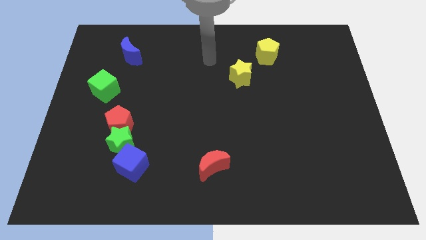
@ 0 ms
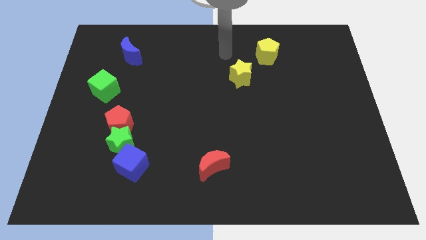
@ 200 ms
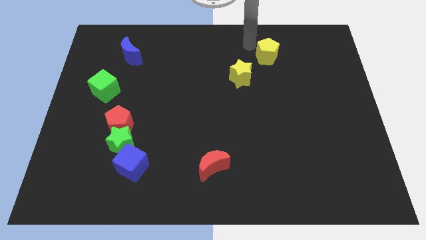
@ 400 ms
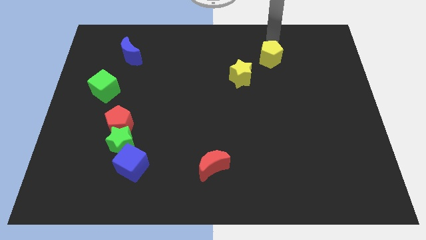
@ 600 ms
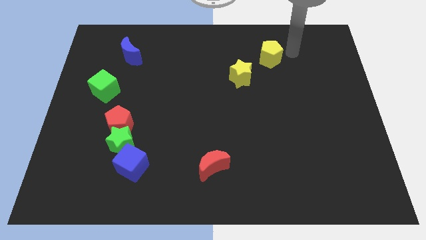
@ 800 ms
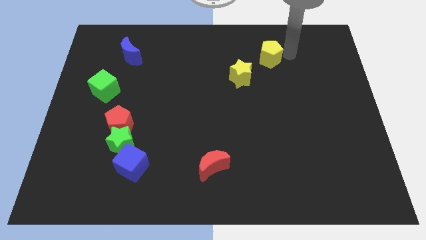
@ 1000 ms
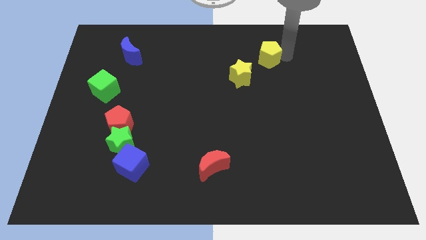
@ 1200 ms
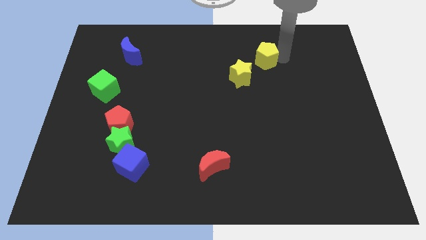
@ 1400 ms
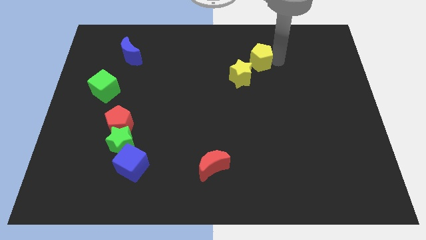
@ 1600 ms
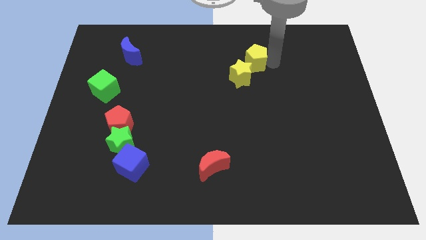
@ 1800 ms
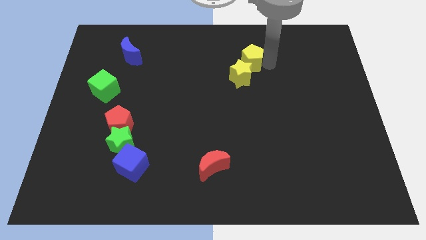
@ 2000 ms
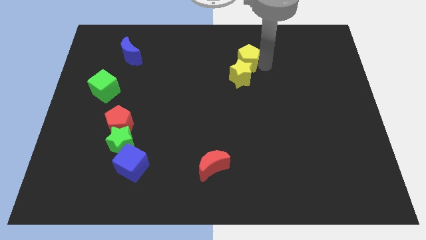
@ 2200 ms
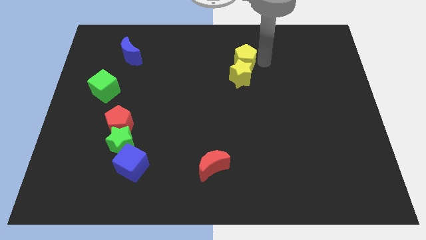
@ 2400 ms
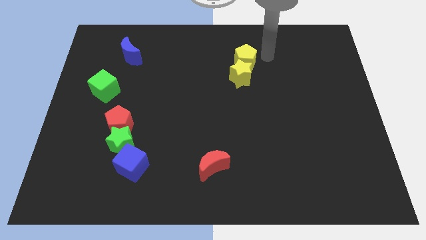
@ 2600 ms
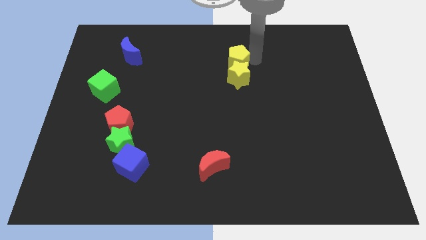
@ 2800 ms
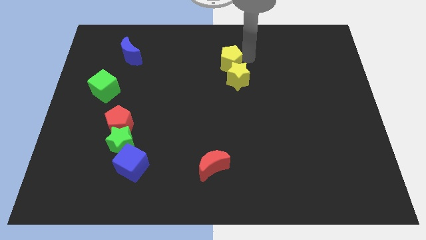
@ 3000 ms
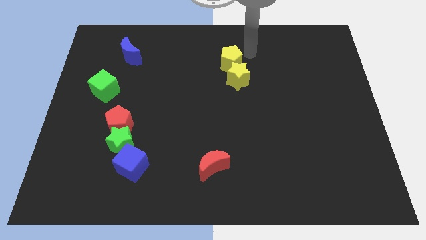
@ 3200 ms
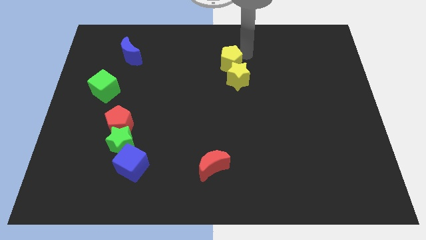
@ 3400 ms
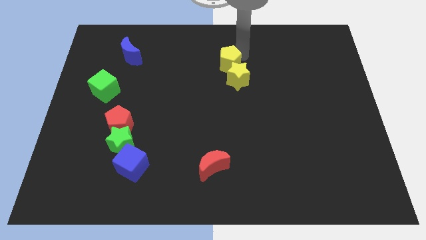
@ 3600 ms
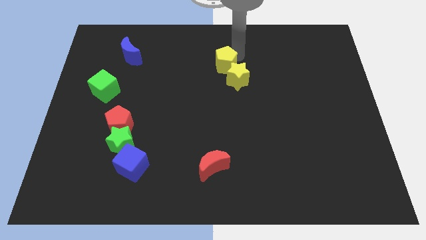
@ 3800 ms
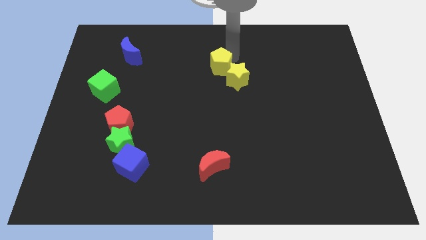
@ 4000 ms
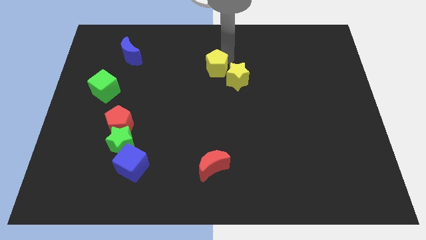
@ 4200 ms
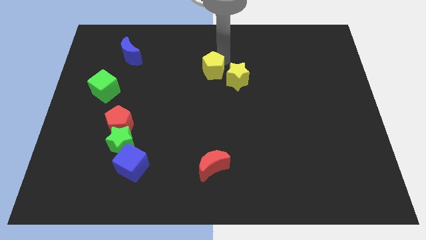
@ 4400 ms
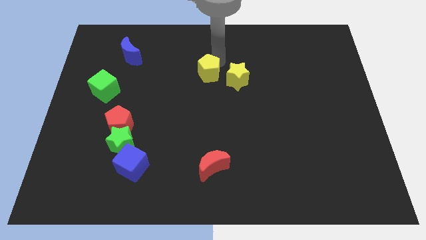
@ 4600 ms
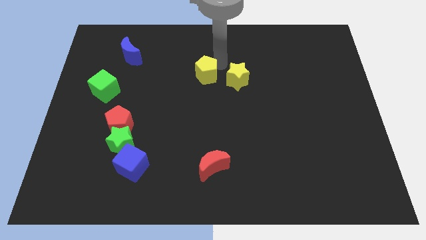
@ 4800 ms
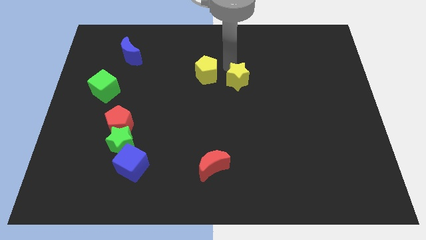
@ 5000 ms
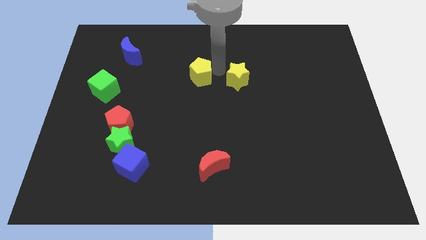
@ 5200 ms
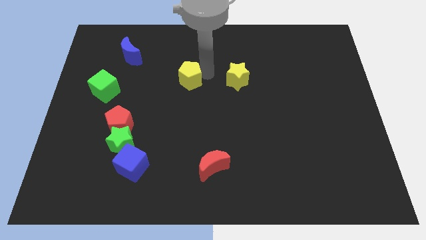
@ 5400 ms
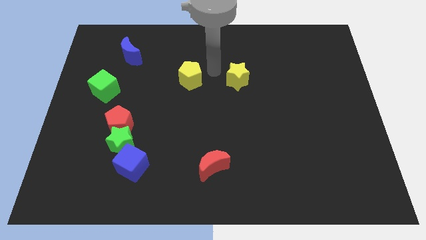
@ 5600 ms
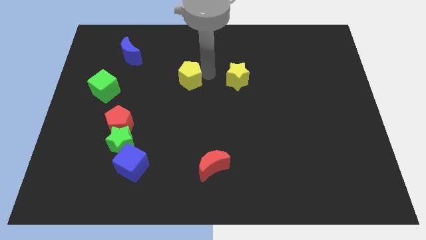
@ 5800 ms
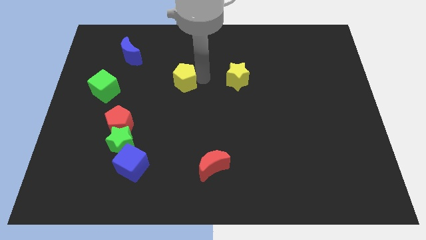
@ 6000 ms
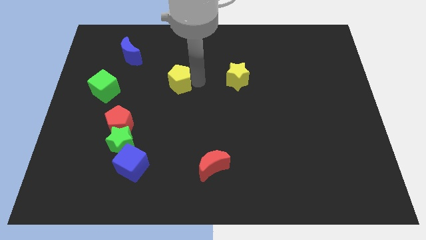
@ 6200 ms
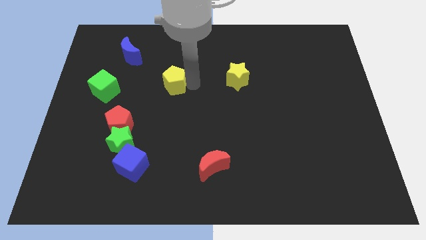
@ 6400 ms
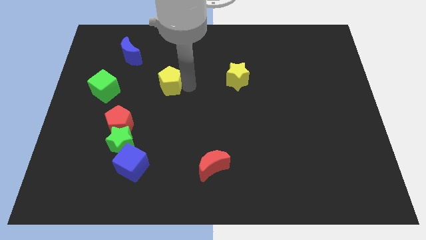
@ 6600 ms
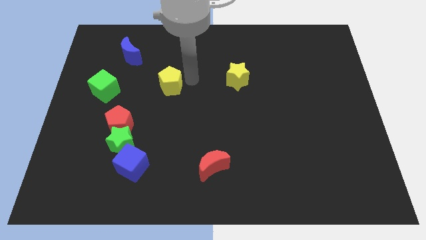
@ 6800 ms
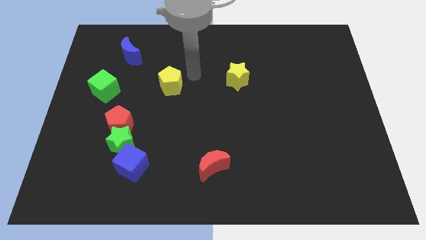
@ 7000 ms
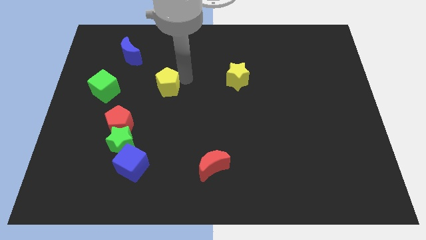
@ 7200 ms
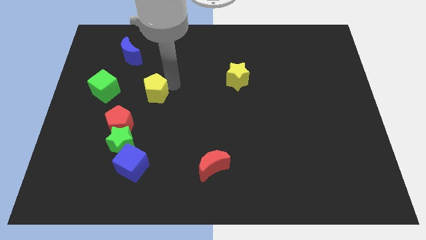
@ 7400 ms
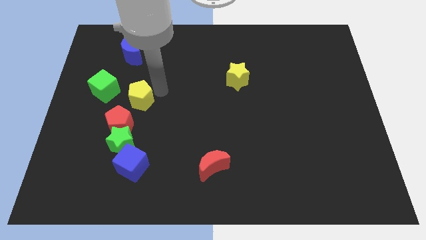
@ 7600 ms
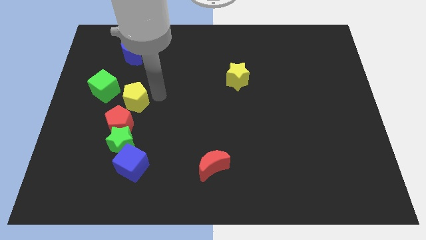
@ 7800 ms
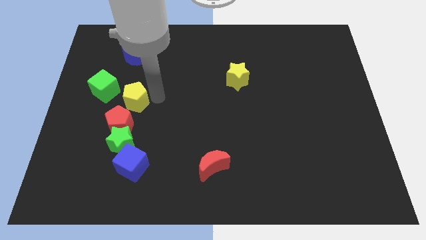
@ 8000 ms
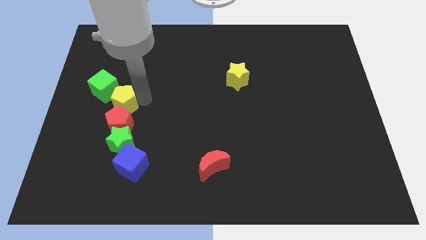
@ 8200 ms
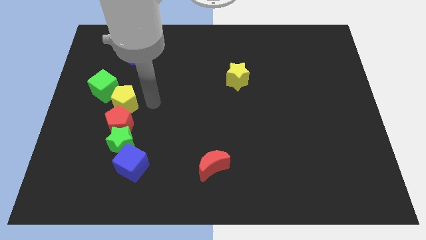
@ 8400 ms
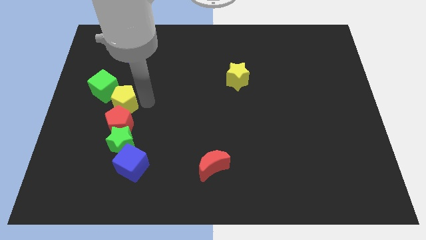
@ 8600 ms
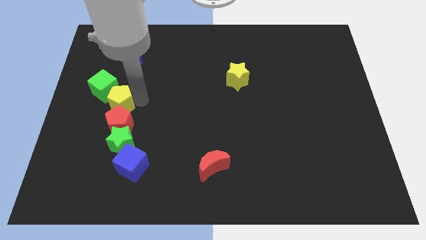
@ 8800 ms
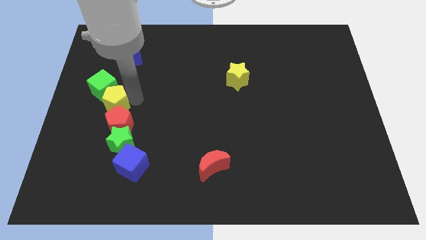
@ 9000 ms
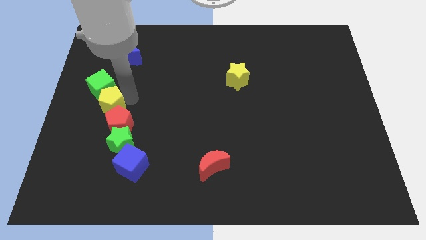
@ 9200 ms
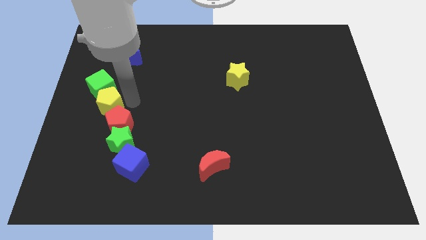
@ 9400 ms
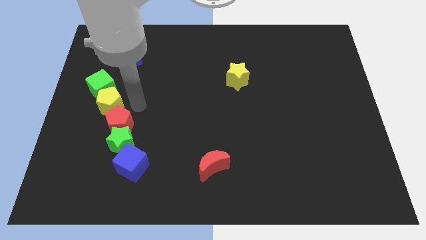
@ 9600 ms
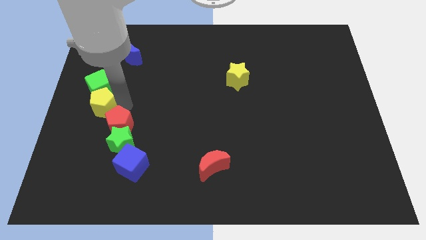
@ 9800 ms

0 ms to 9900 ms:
move the yellow pentagon to the center left

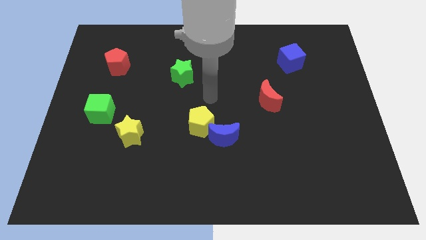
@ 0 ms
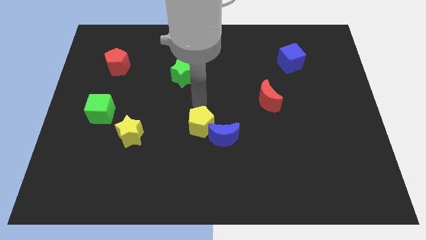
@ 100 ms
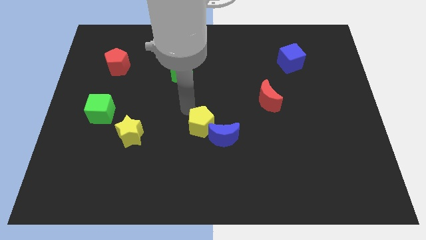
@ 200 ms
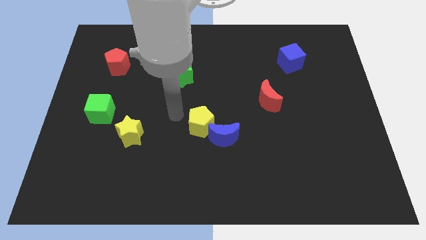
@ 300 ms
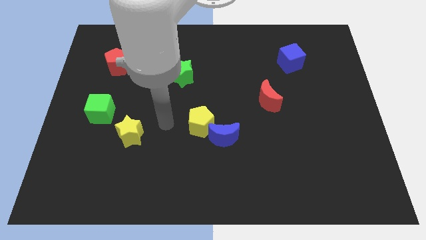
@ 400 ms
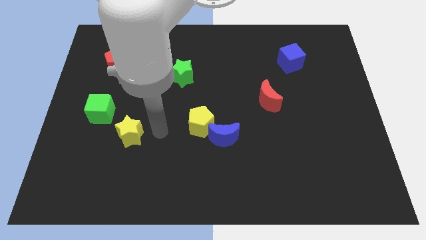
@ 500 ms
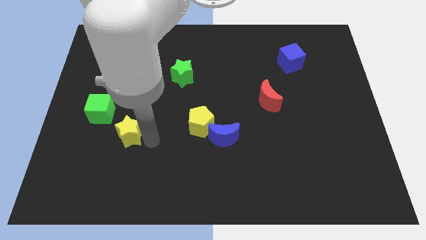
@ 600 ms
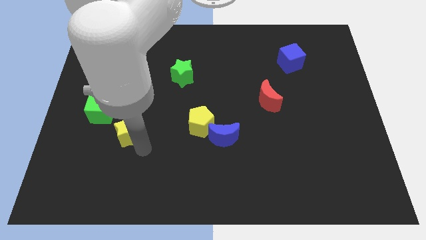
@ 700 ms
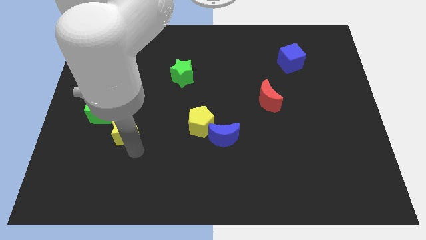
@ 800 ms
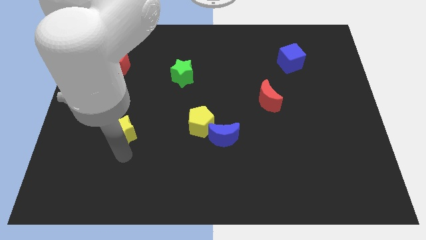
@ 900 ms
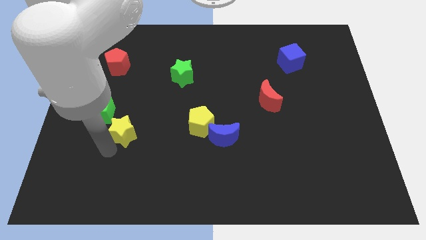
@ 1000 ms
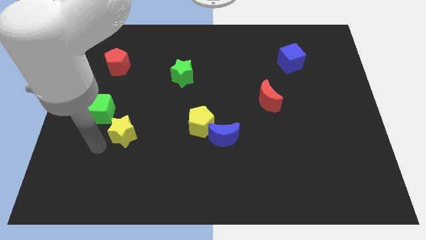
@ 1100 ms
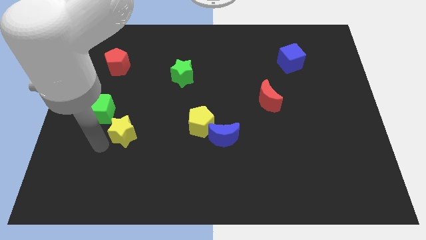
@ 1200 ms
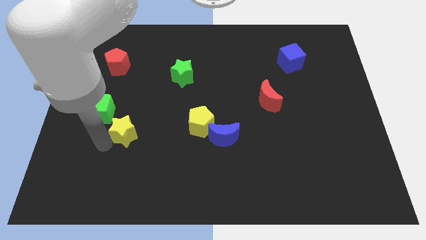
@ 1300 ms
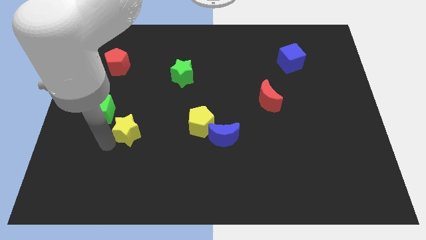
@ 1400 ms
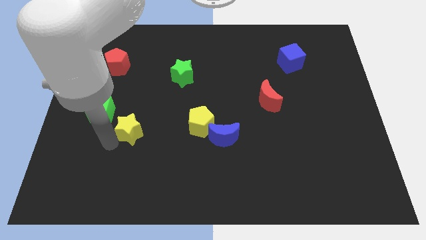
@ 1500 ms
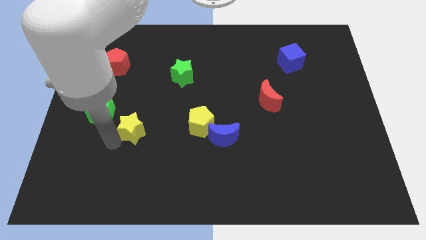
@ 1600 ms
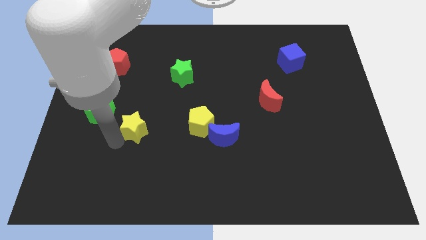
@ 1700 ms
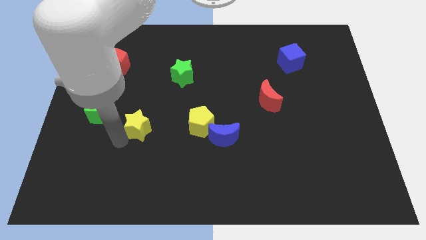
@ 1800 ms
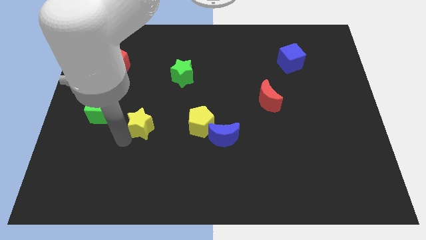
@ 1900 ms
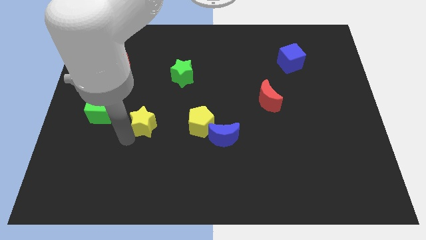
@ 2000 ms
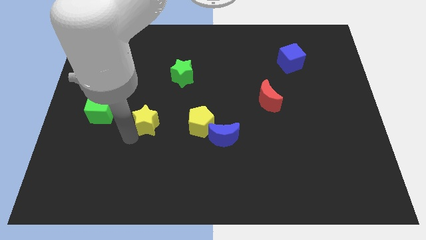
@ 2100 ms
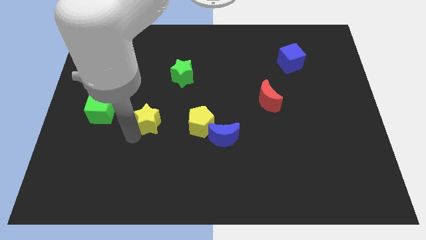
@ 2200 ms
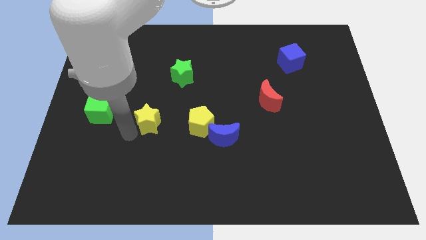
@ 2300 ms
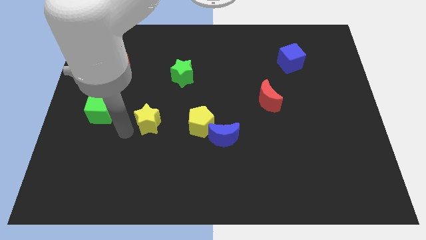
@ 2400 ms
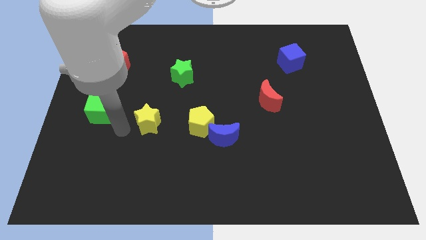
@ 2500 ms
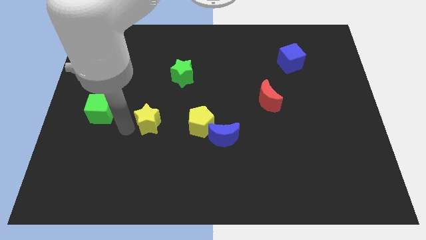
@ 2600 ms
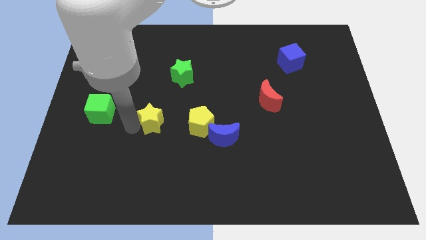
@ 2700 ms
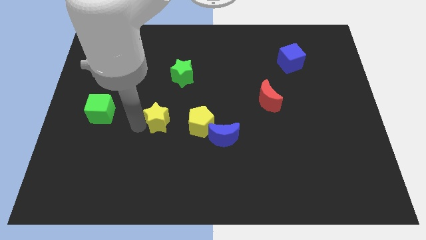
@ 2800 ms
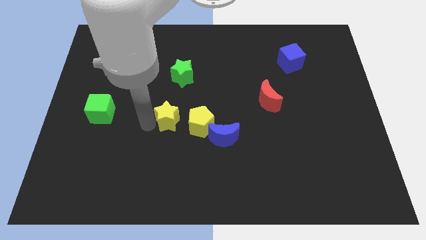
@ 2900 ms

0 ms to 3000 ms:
move the yellow star to the middle of the board
